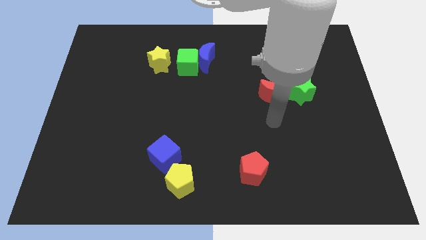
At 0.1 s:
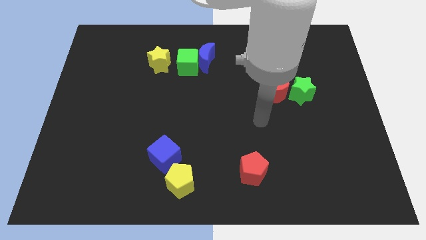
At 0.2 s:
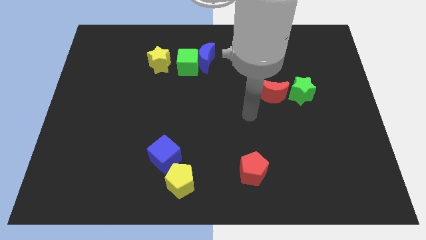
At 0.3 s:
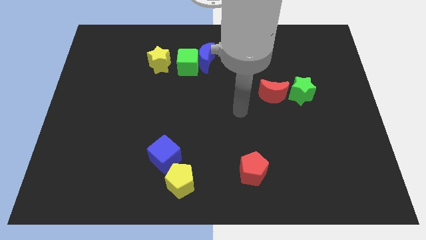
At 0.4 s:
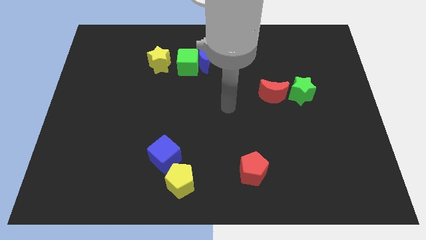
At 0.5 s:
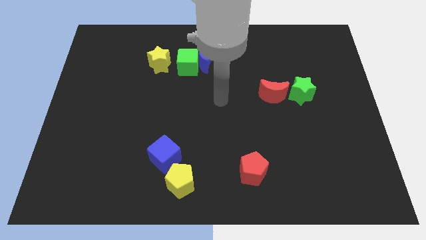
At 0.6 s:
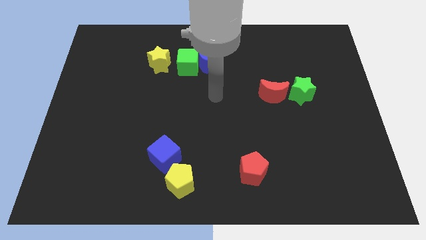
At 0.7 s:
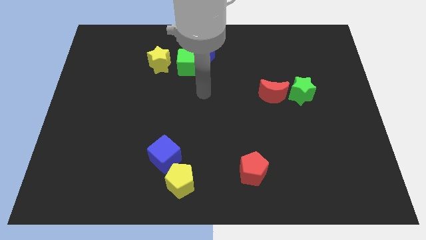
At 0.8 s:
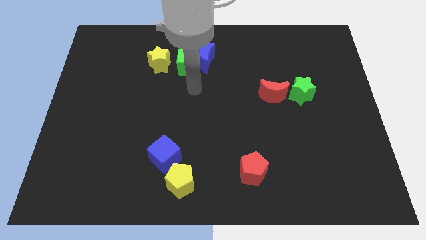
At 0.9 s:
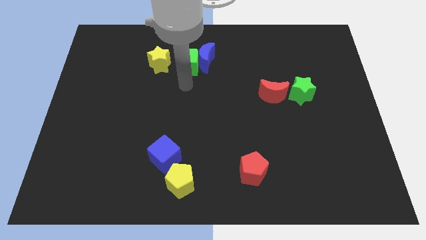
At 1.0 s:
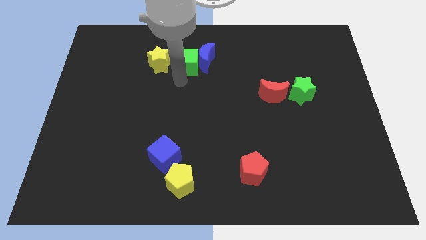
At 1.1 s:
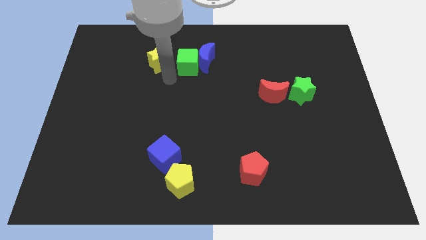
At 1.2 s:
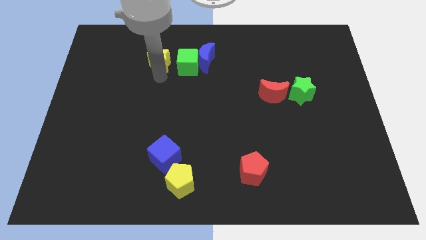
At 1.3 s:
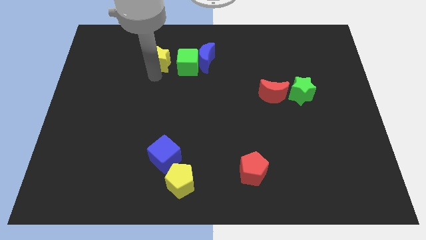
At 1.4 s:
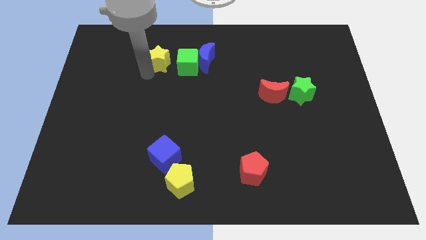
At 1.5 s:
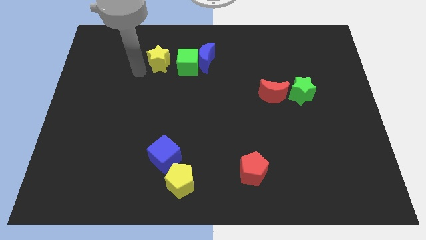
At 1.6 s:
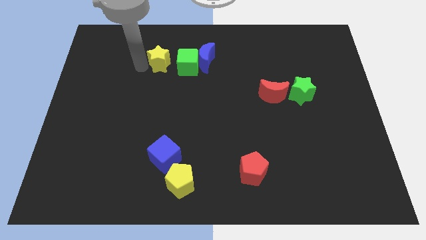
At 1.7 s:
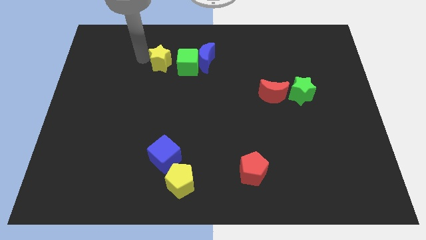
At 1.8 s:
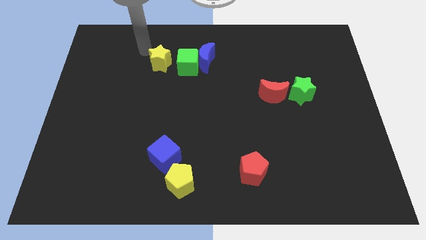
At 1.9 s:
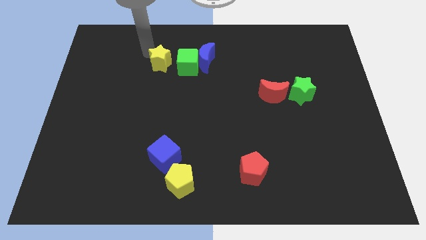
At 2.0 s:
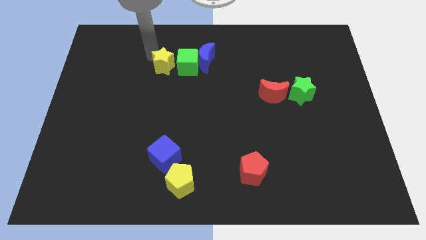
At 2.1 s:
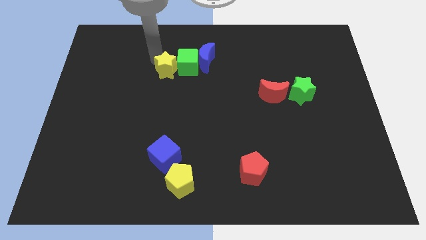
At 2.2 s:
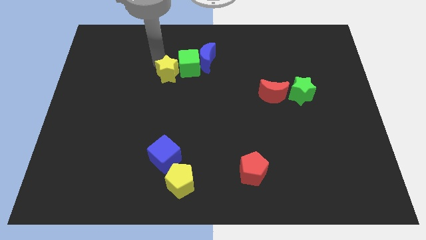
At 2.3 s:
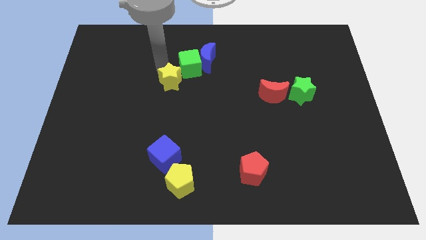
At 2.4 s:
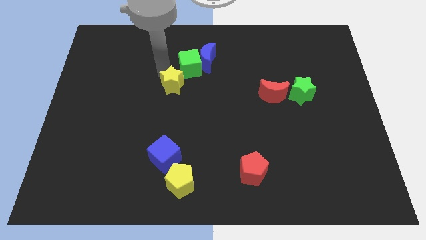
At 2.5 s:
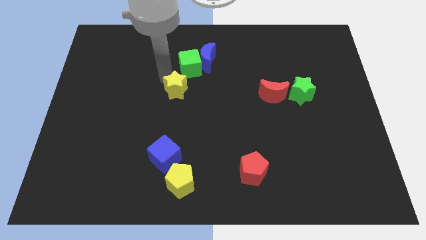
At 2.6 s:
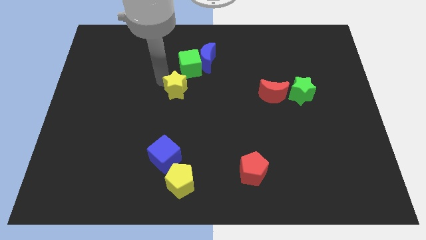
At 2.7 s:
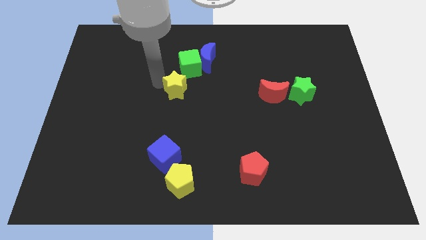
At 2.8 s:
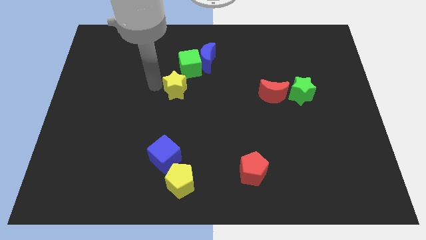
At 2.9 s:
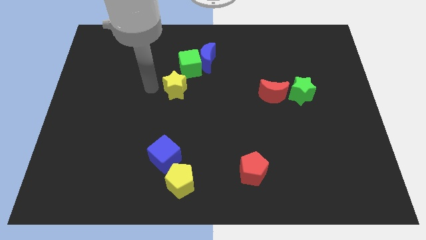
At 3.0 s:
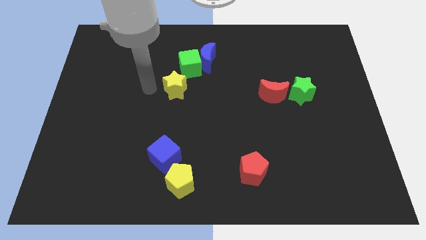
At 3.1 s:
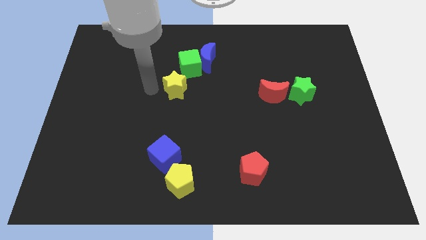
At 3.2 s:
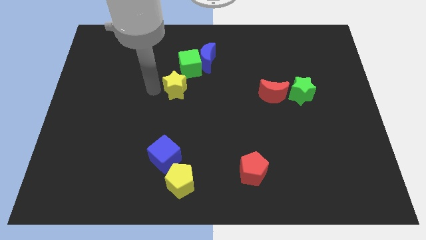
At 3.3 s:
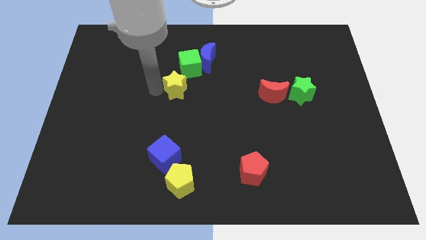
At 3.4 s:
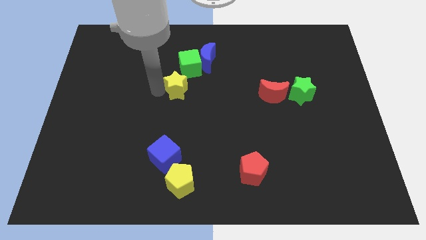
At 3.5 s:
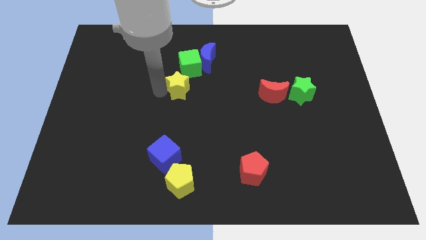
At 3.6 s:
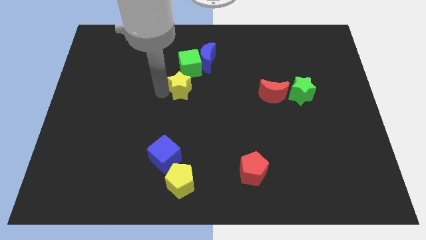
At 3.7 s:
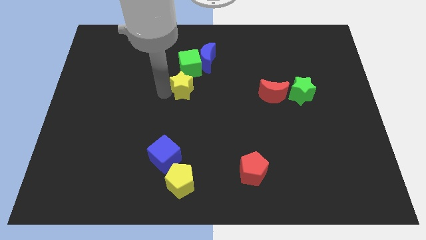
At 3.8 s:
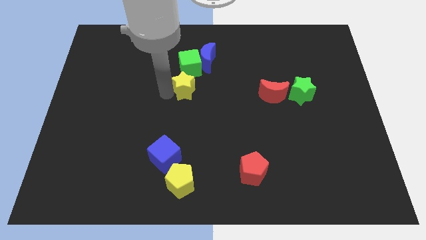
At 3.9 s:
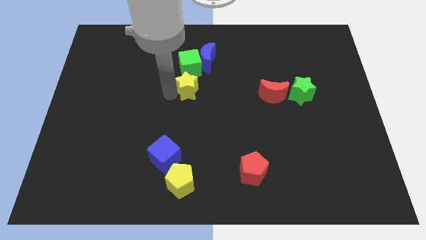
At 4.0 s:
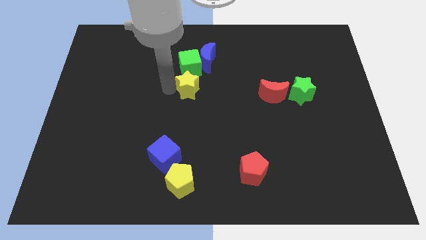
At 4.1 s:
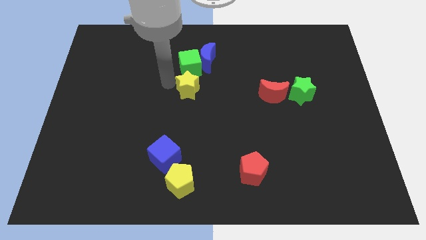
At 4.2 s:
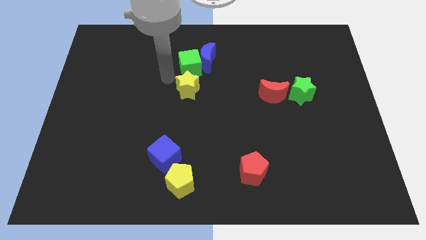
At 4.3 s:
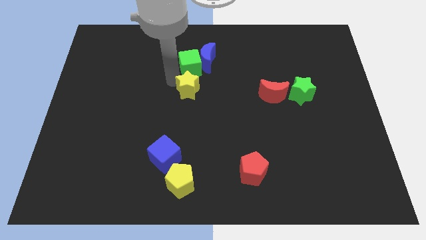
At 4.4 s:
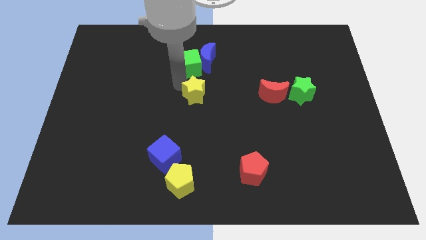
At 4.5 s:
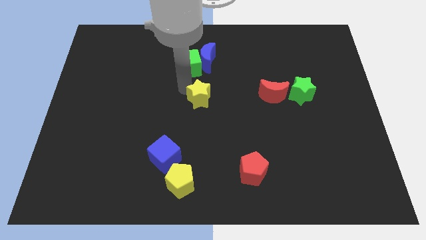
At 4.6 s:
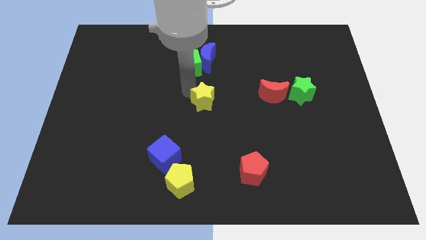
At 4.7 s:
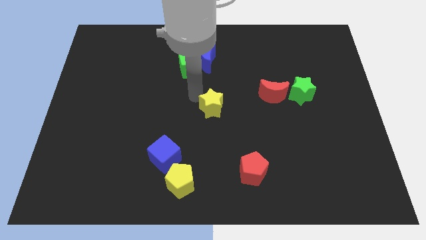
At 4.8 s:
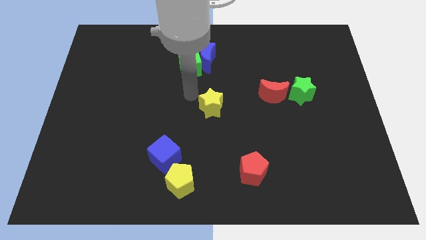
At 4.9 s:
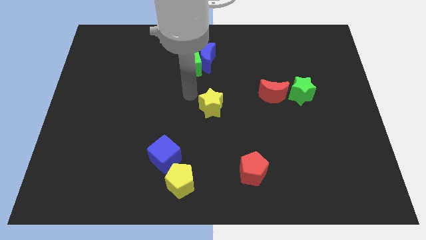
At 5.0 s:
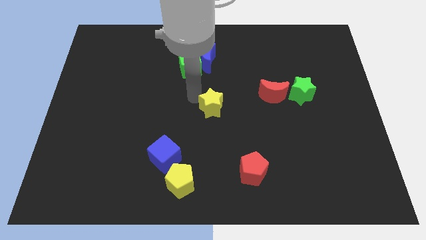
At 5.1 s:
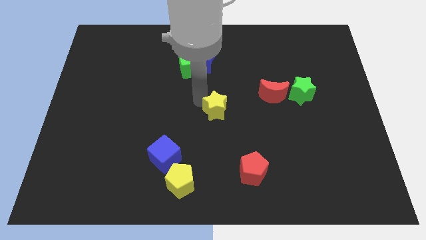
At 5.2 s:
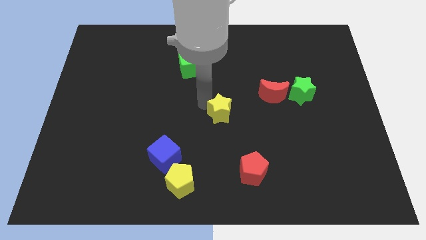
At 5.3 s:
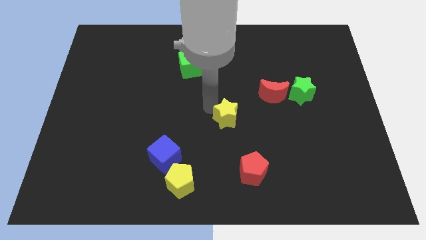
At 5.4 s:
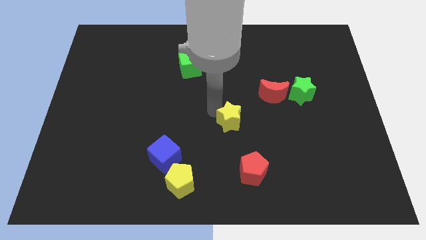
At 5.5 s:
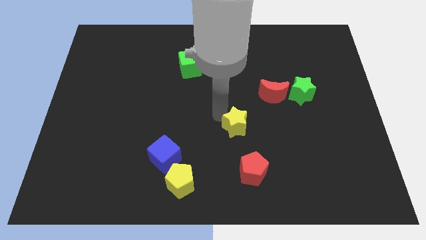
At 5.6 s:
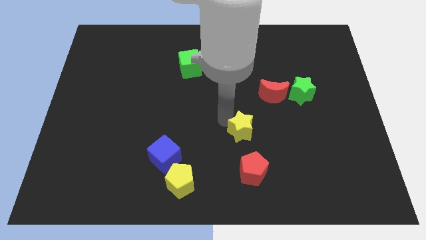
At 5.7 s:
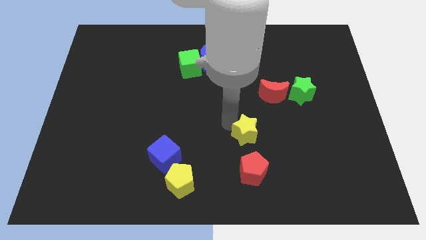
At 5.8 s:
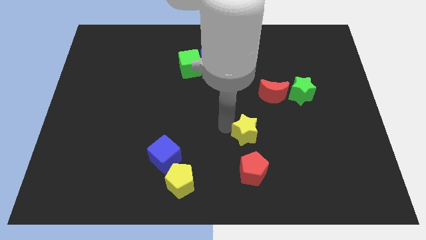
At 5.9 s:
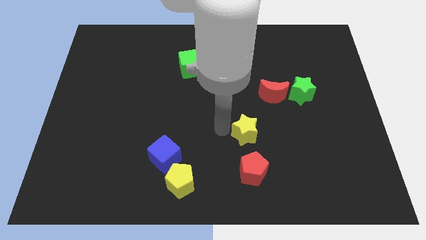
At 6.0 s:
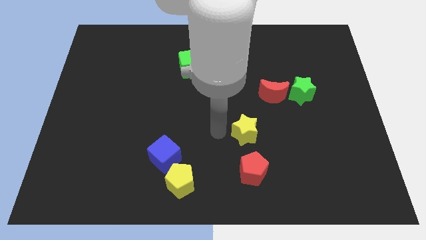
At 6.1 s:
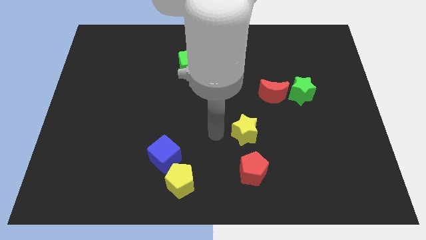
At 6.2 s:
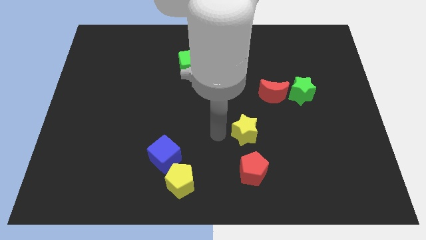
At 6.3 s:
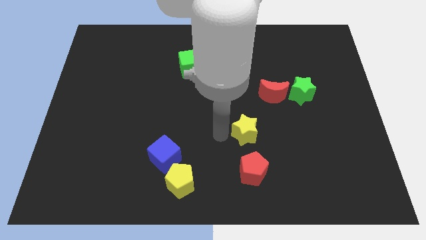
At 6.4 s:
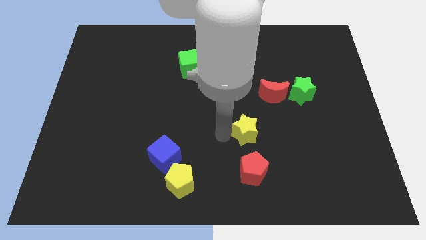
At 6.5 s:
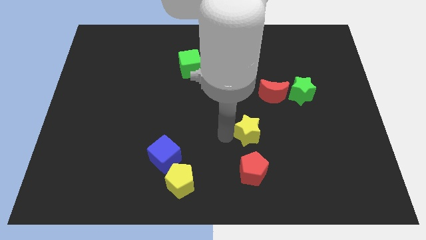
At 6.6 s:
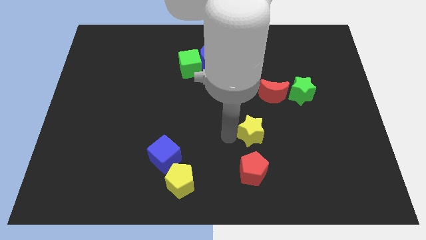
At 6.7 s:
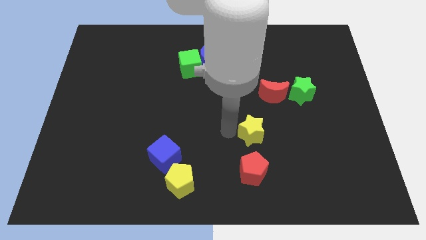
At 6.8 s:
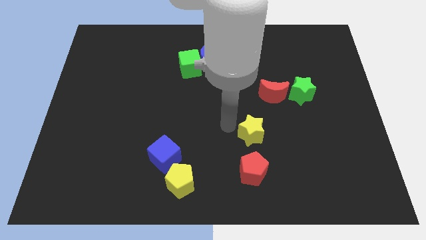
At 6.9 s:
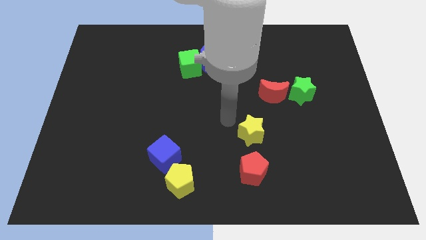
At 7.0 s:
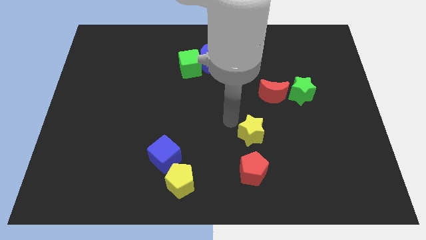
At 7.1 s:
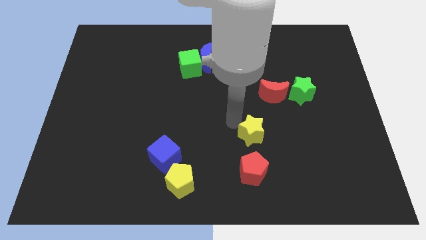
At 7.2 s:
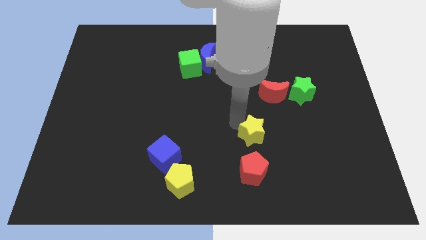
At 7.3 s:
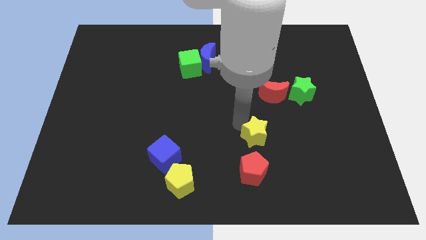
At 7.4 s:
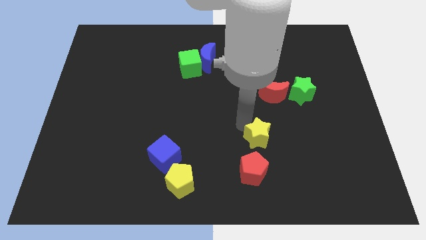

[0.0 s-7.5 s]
push the yellow star to the top right side of the red pentagon
